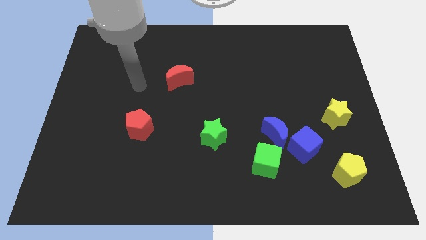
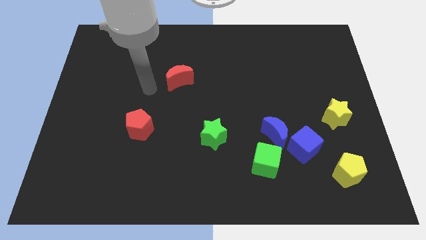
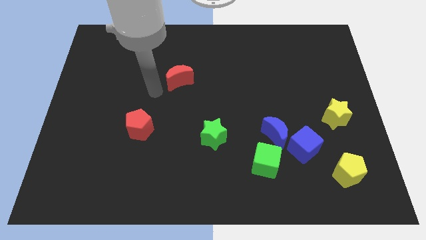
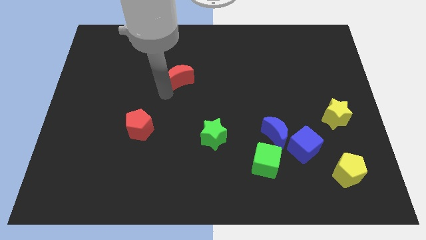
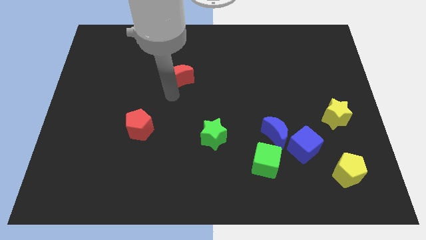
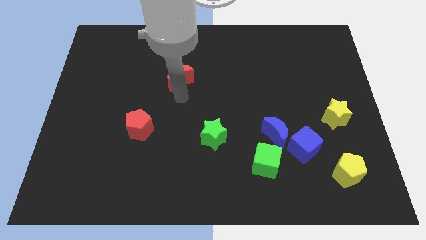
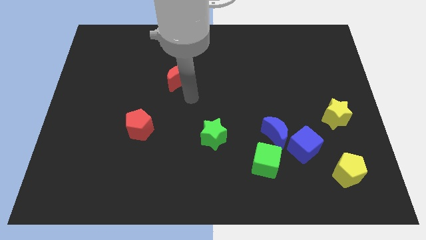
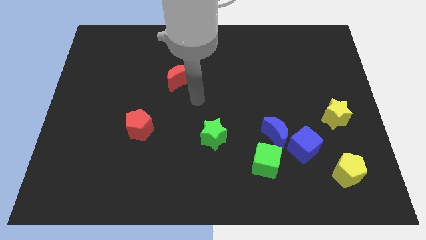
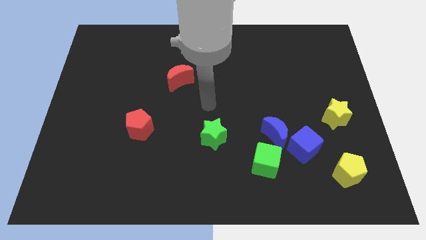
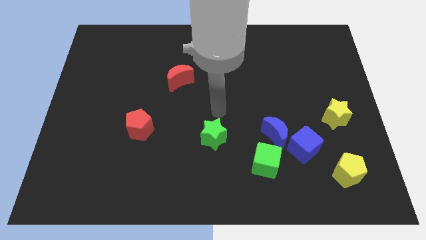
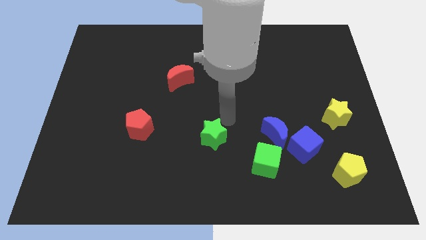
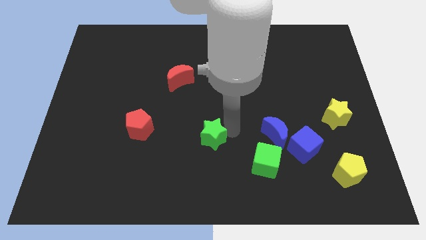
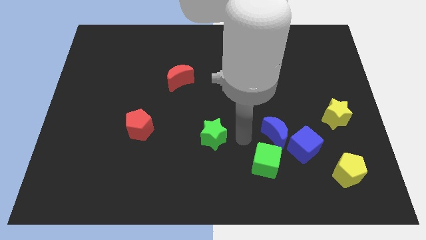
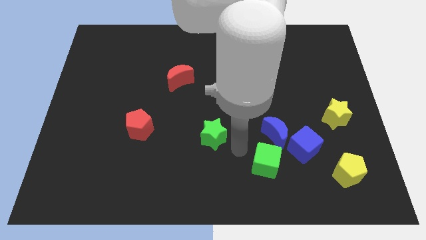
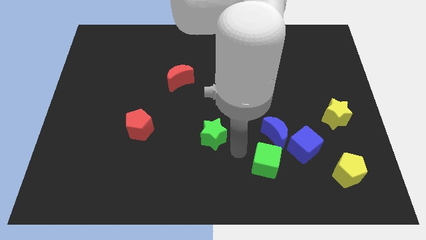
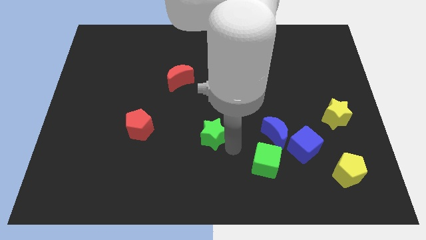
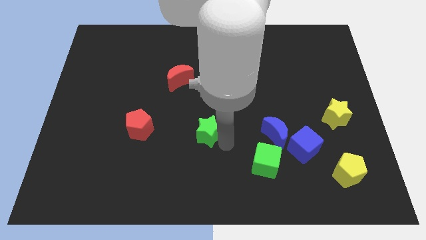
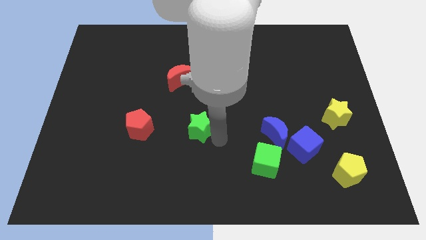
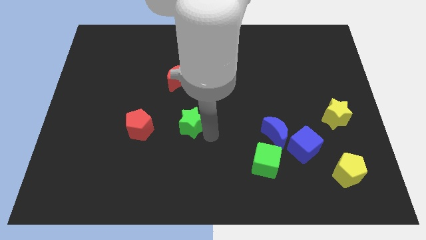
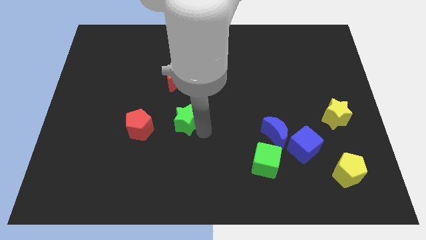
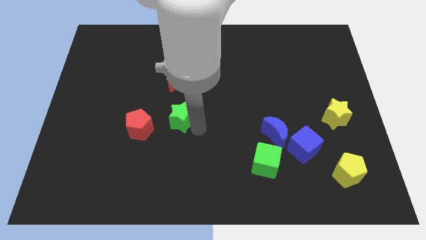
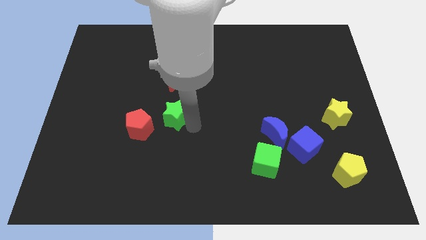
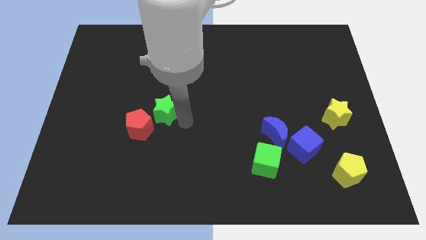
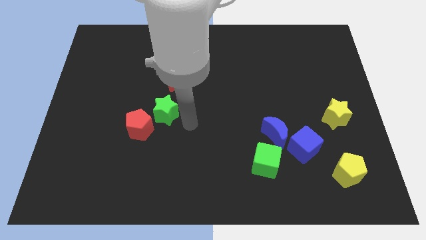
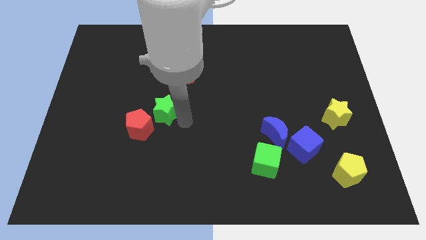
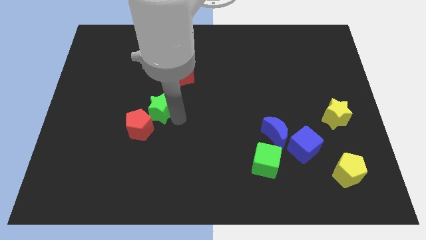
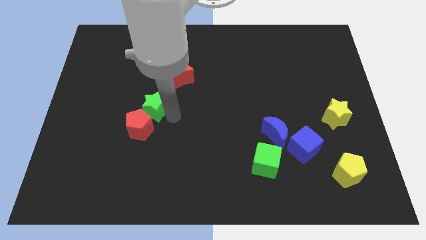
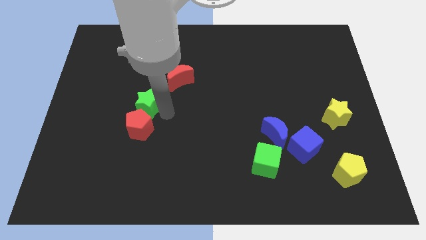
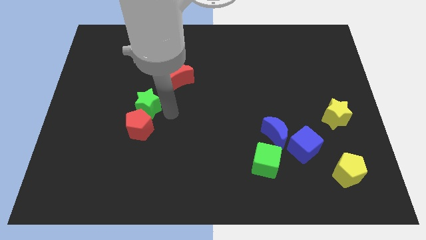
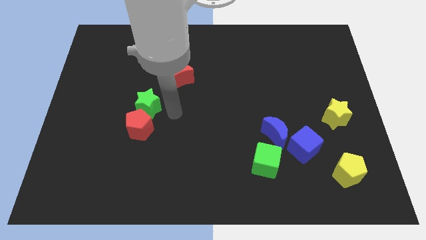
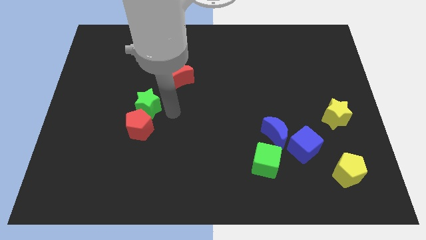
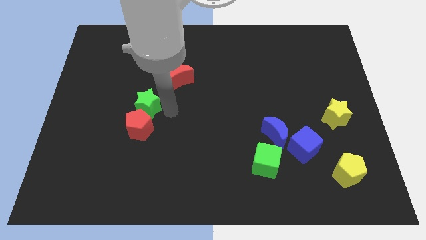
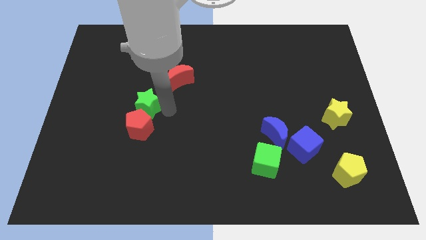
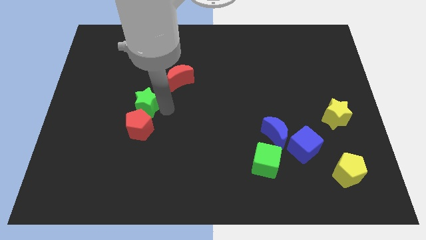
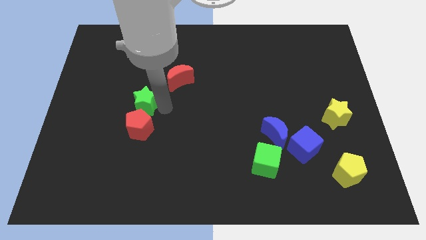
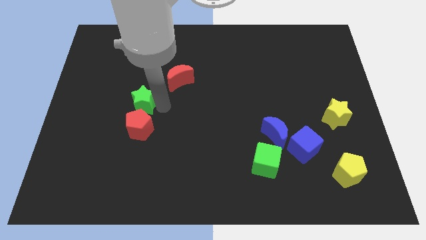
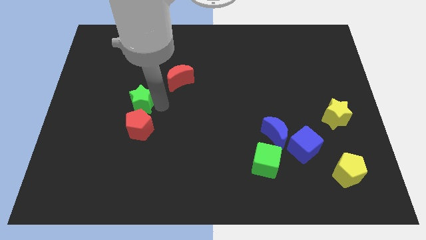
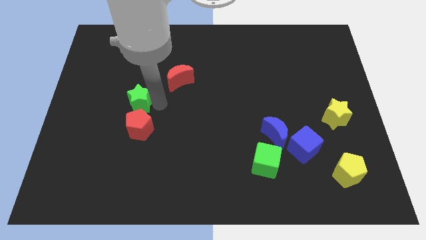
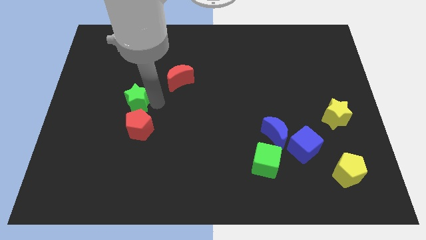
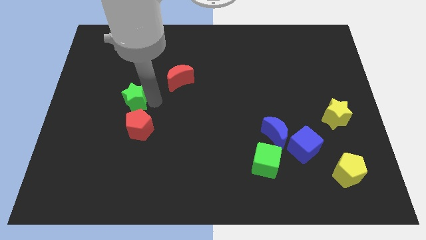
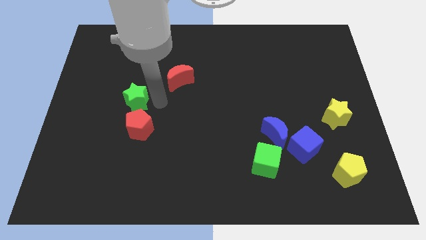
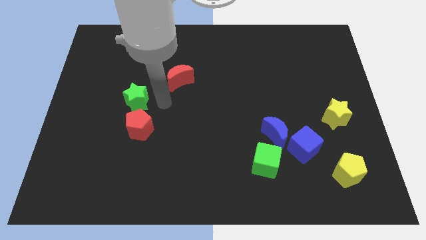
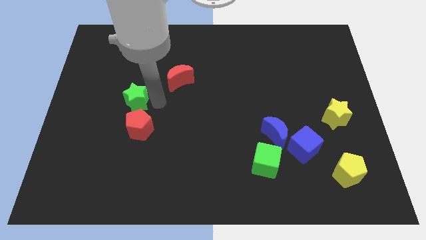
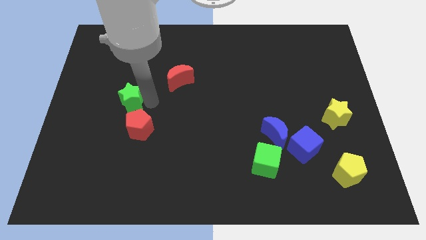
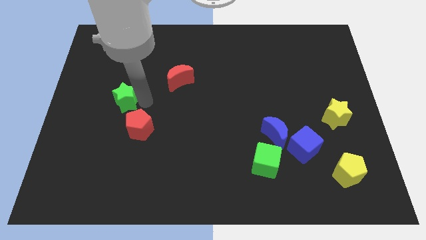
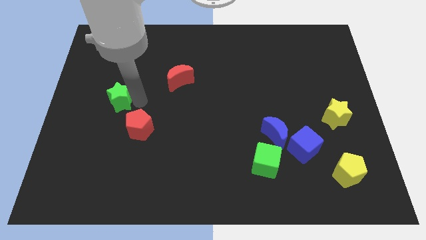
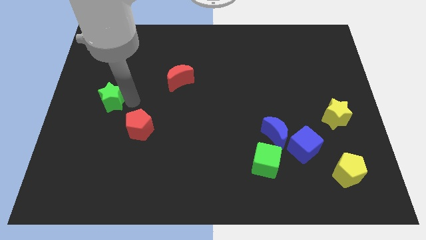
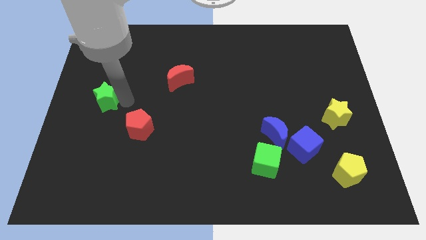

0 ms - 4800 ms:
move the green star to the left side
